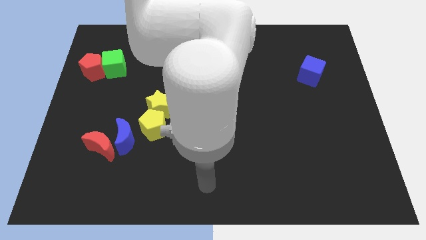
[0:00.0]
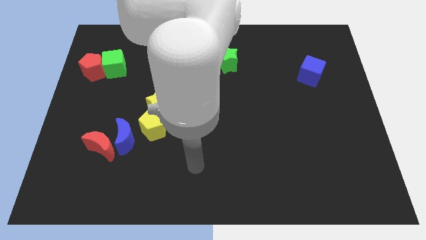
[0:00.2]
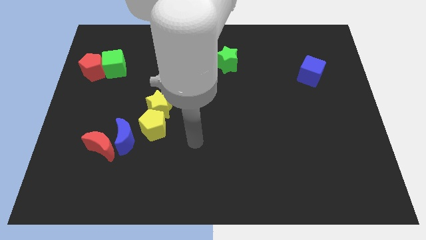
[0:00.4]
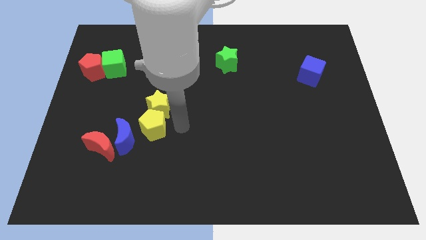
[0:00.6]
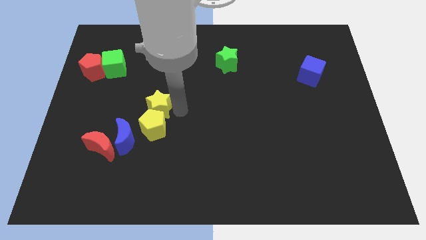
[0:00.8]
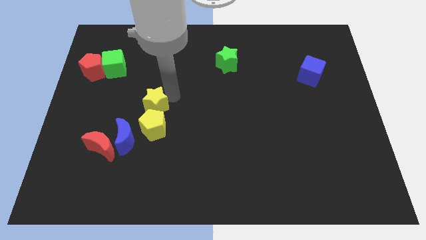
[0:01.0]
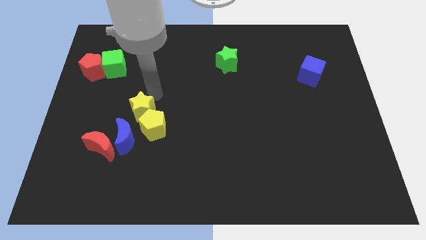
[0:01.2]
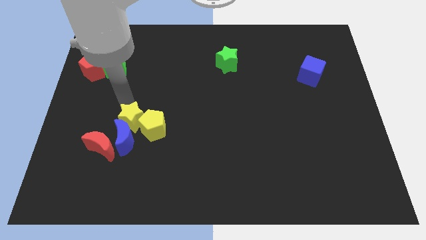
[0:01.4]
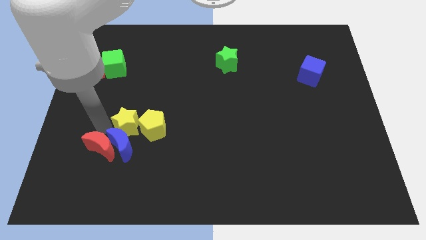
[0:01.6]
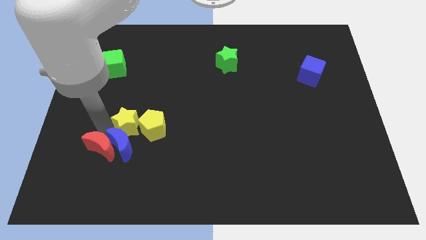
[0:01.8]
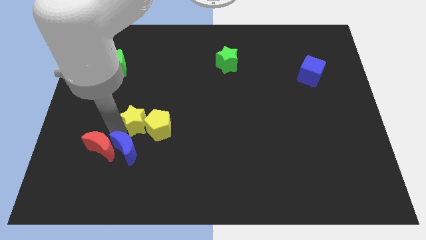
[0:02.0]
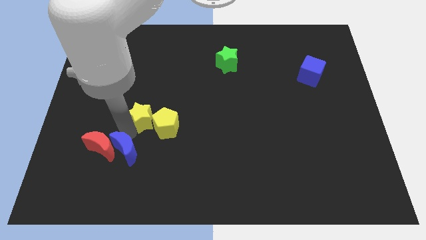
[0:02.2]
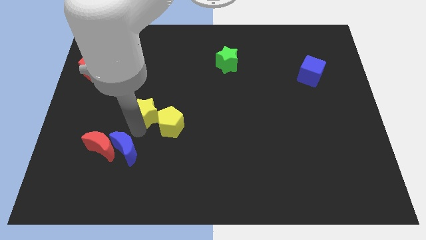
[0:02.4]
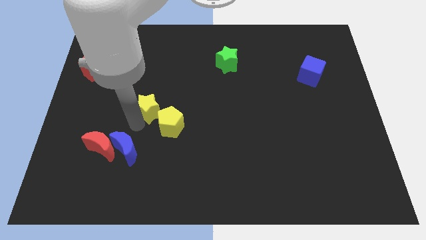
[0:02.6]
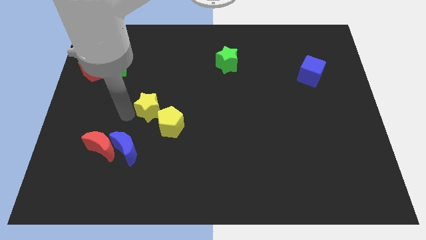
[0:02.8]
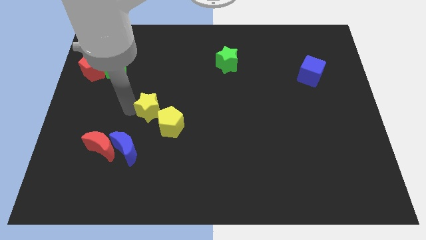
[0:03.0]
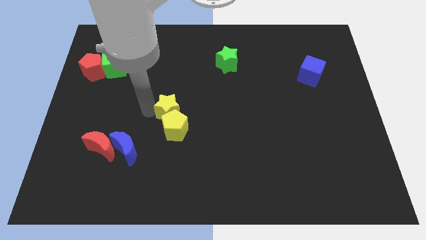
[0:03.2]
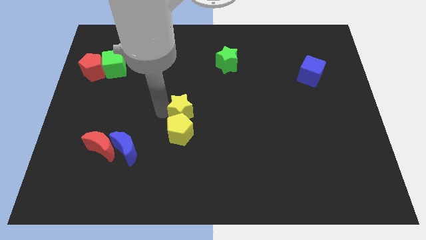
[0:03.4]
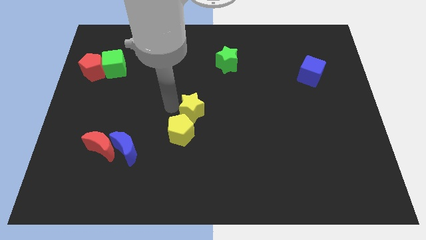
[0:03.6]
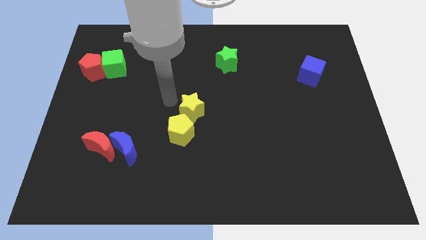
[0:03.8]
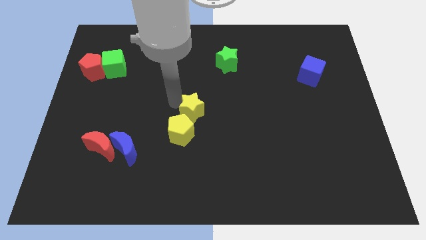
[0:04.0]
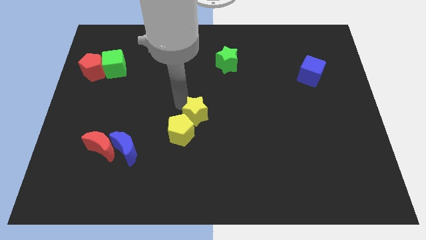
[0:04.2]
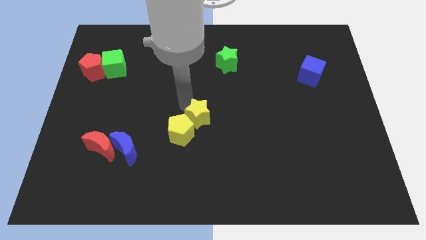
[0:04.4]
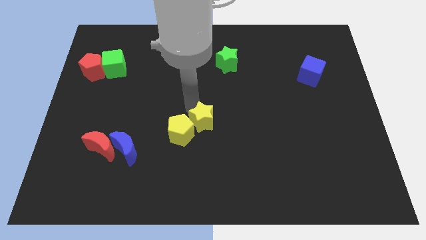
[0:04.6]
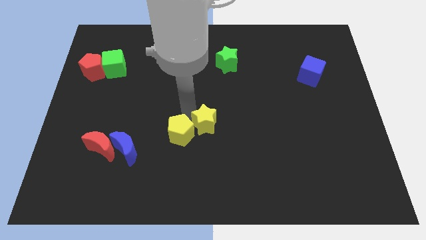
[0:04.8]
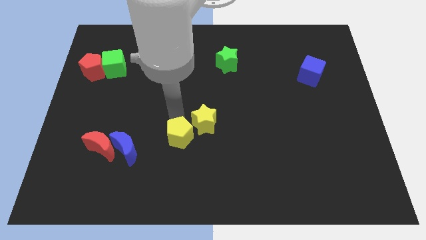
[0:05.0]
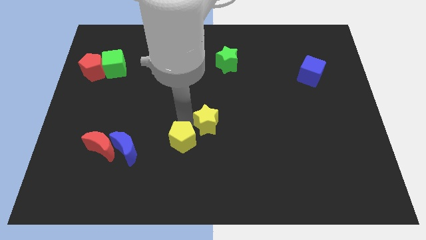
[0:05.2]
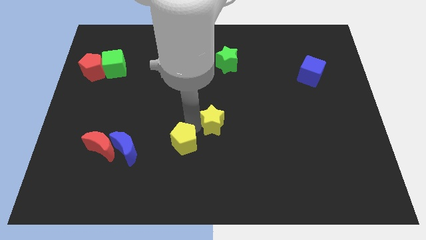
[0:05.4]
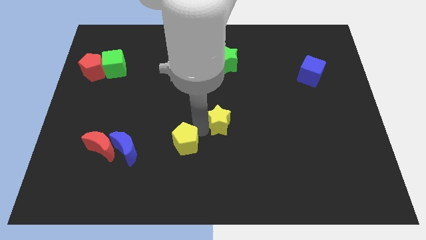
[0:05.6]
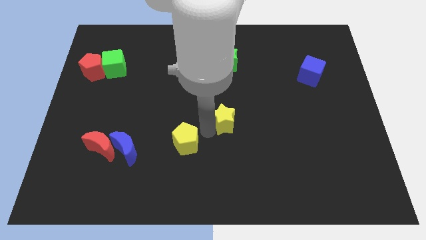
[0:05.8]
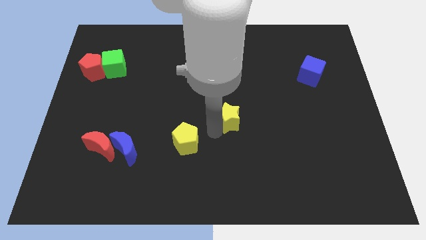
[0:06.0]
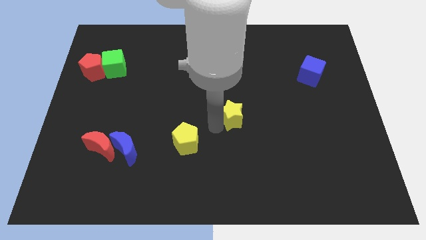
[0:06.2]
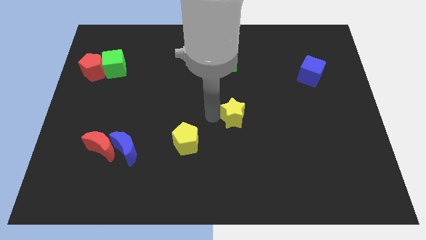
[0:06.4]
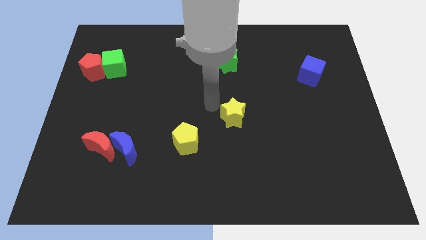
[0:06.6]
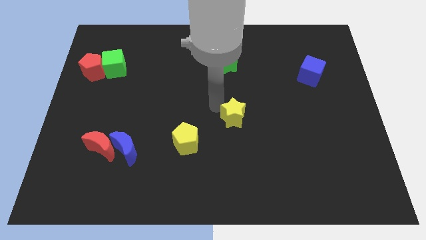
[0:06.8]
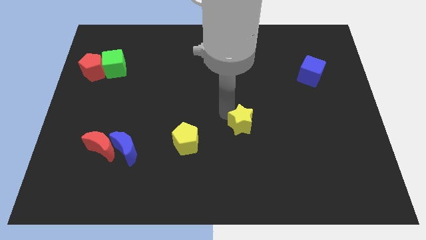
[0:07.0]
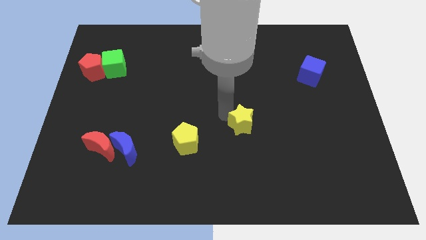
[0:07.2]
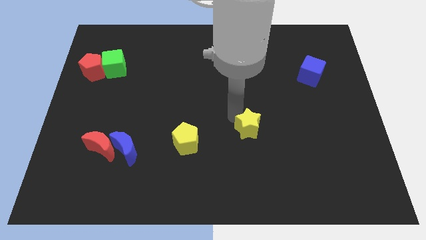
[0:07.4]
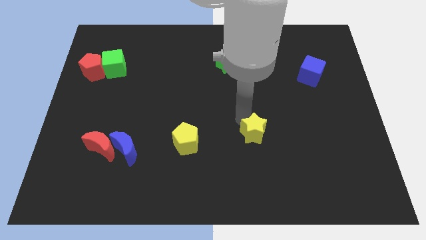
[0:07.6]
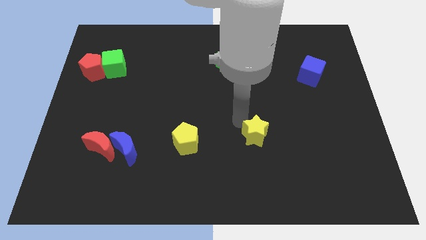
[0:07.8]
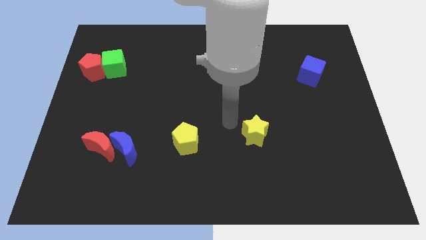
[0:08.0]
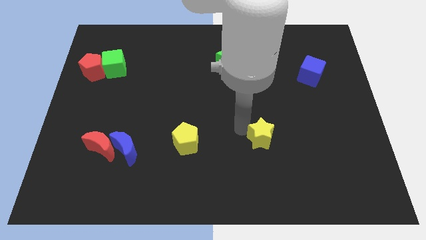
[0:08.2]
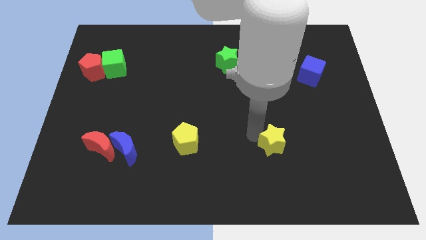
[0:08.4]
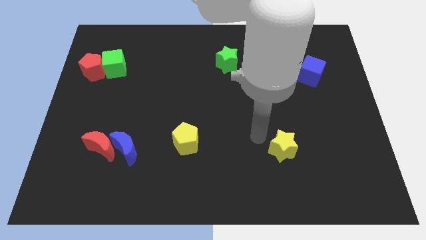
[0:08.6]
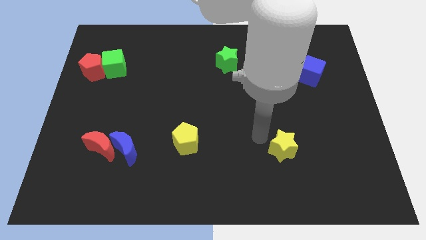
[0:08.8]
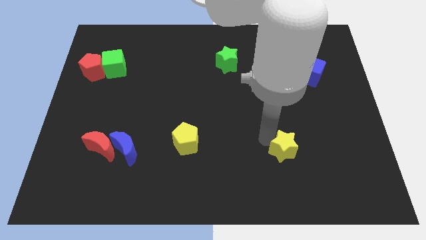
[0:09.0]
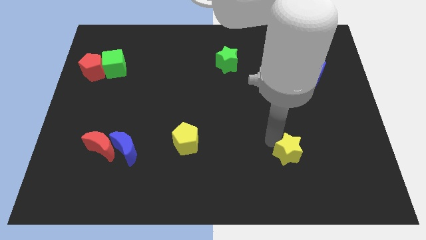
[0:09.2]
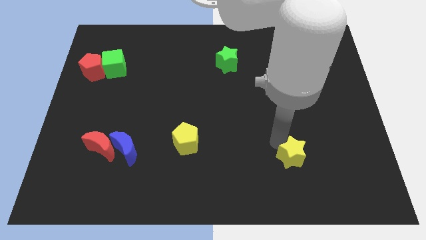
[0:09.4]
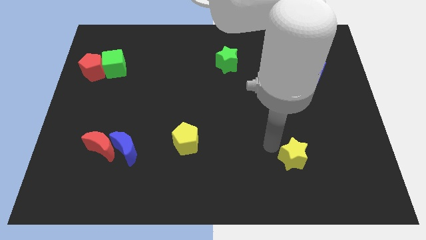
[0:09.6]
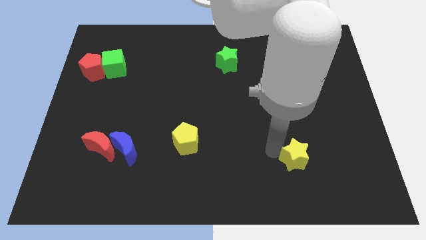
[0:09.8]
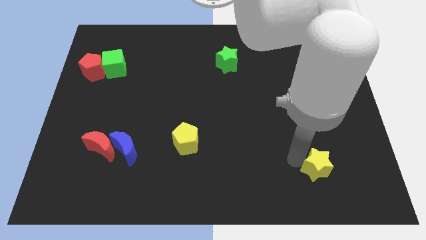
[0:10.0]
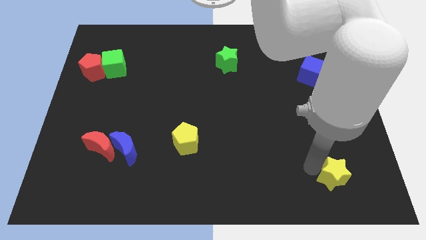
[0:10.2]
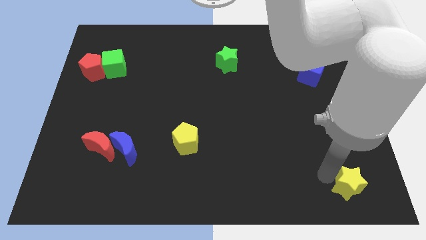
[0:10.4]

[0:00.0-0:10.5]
put the yellow star to the bottom right corner
